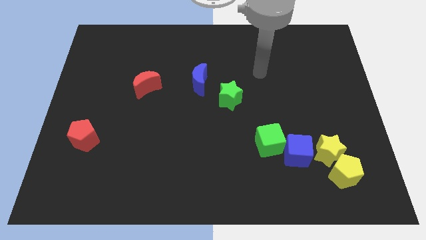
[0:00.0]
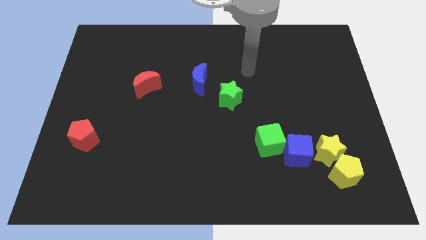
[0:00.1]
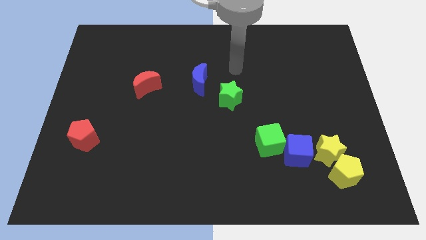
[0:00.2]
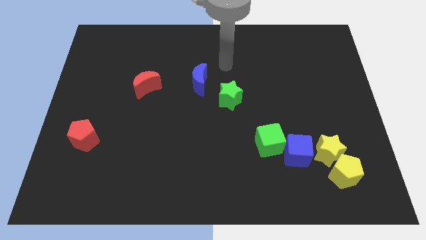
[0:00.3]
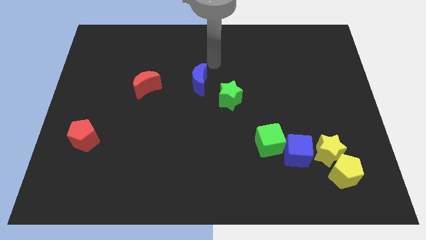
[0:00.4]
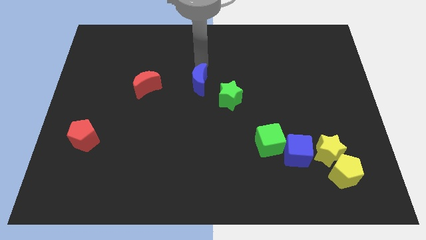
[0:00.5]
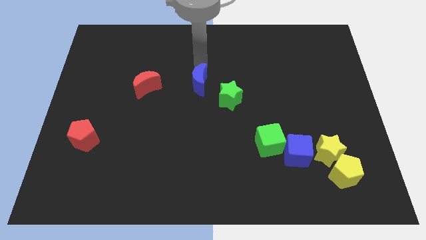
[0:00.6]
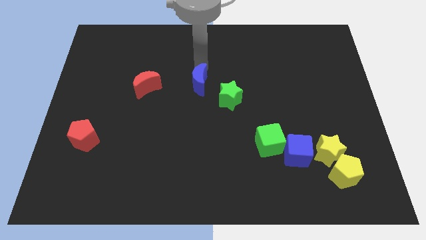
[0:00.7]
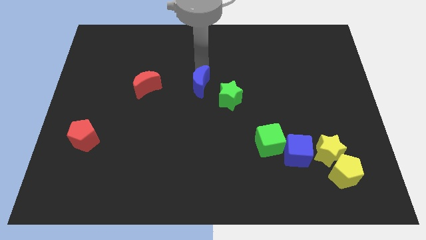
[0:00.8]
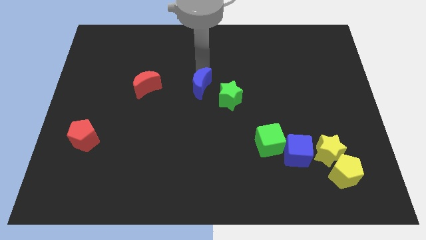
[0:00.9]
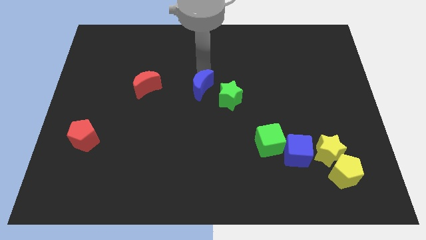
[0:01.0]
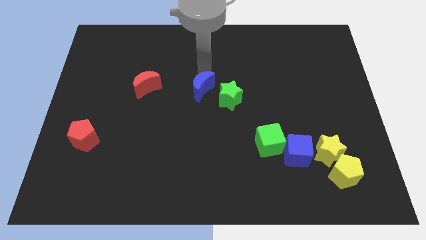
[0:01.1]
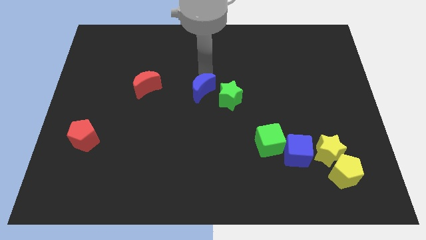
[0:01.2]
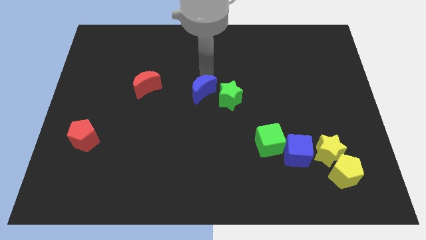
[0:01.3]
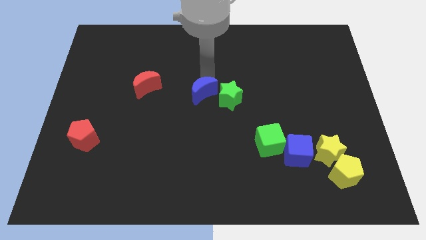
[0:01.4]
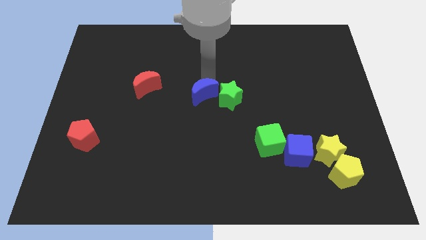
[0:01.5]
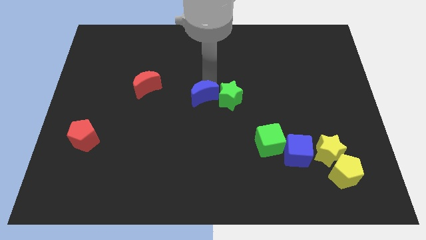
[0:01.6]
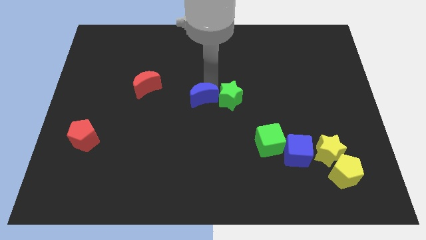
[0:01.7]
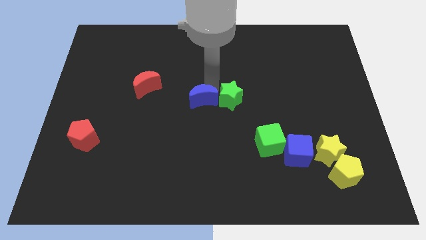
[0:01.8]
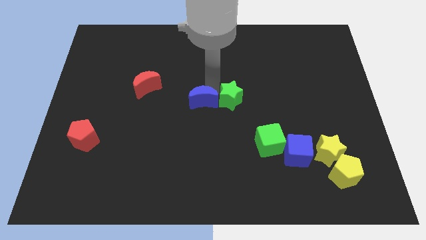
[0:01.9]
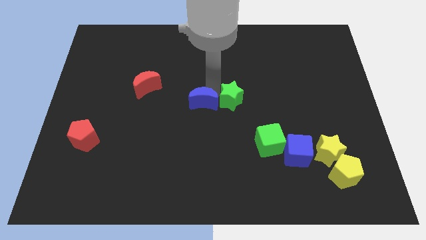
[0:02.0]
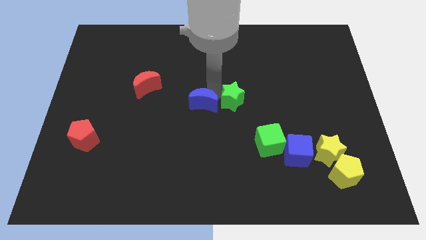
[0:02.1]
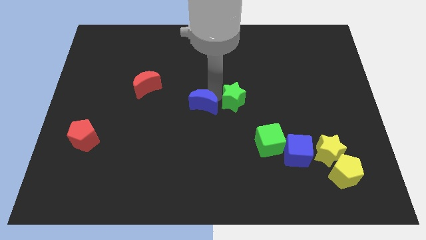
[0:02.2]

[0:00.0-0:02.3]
push the blue moon a bit downwards

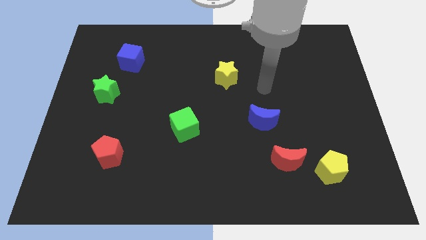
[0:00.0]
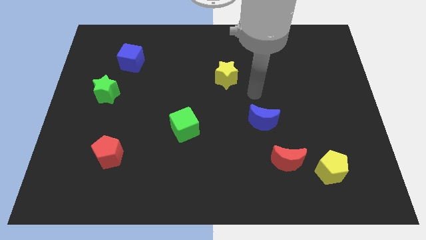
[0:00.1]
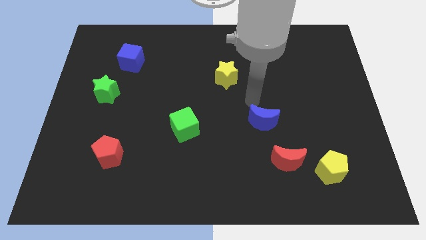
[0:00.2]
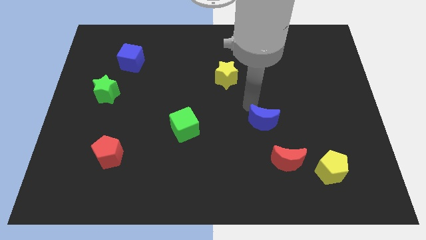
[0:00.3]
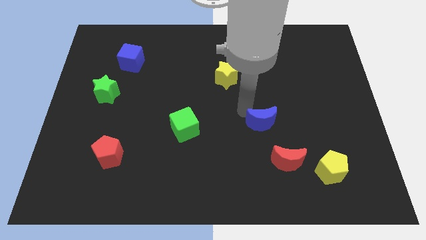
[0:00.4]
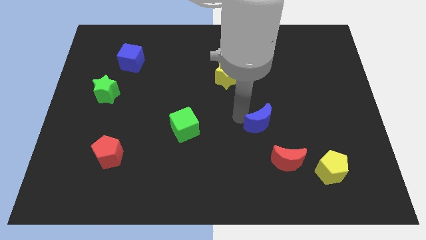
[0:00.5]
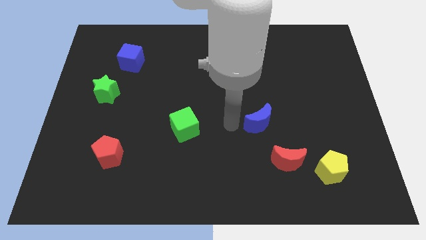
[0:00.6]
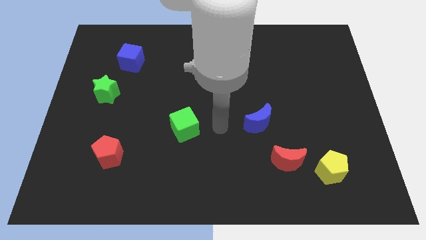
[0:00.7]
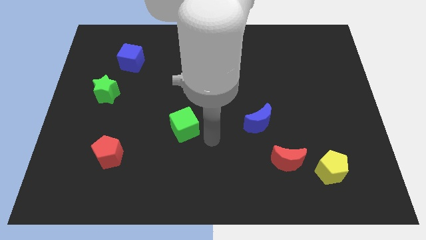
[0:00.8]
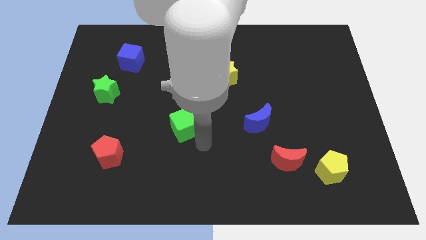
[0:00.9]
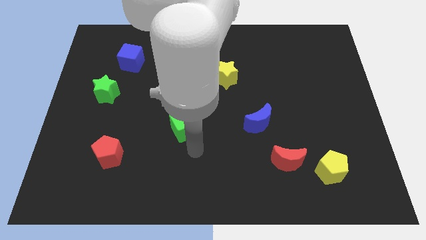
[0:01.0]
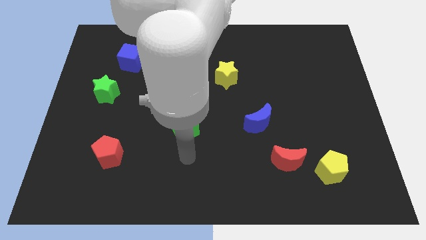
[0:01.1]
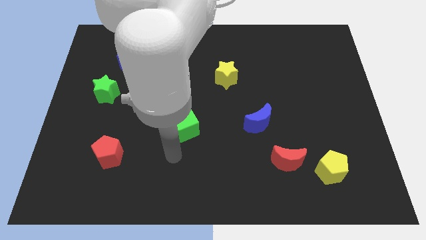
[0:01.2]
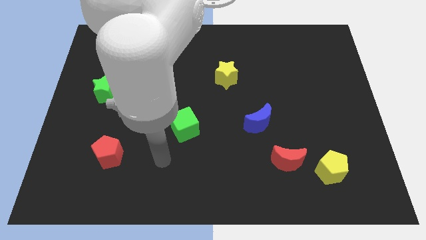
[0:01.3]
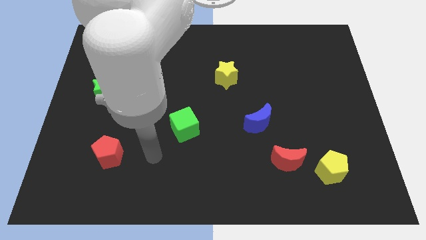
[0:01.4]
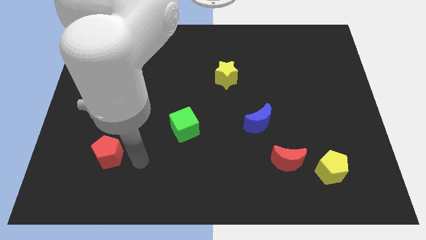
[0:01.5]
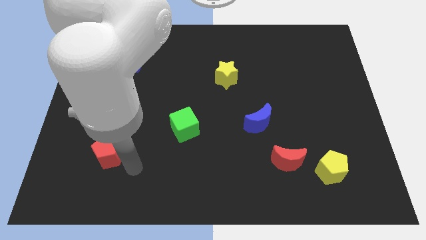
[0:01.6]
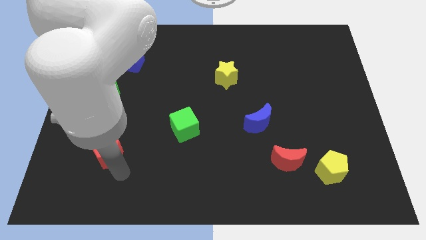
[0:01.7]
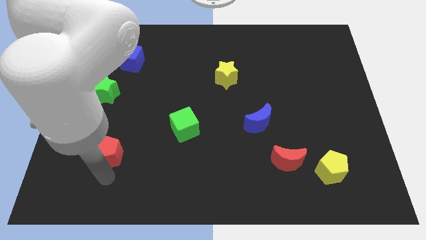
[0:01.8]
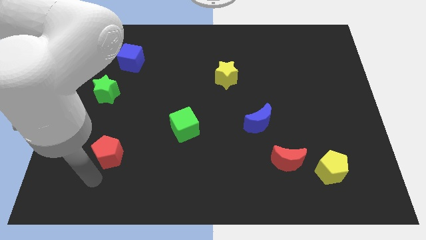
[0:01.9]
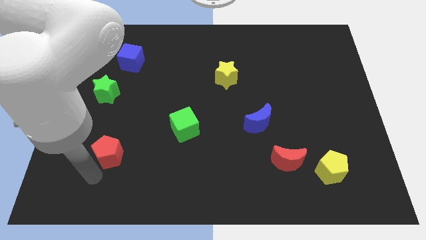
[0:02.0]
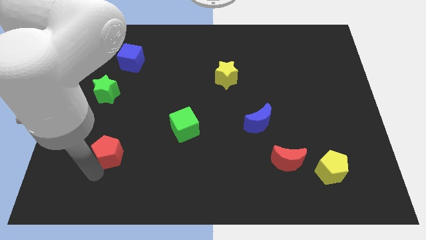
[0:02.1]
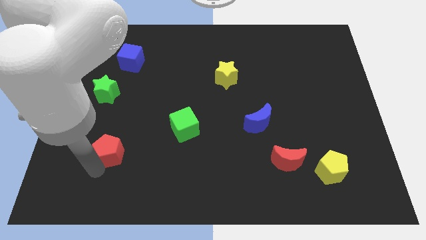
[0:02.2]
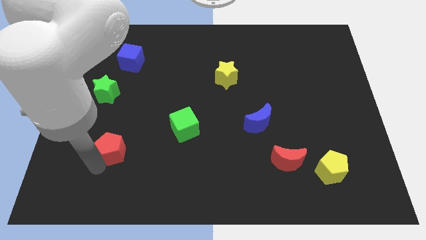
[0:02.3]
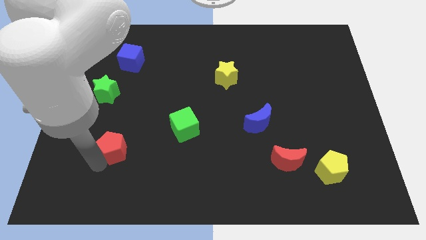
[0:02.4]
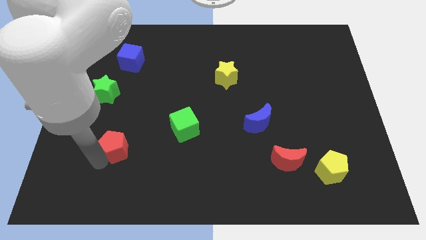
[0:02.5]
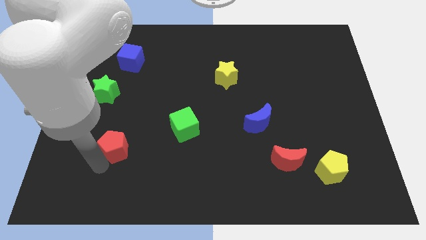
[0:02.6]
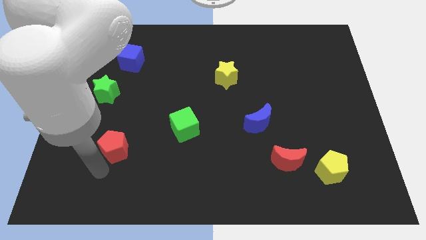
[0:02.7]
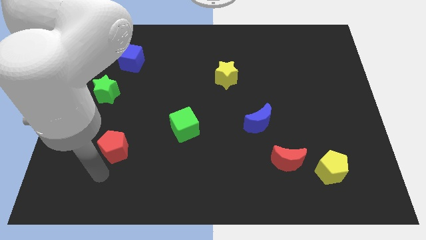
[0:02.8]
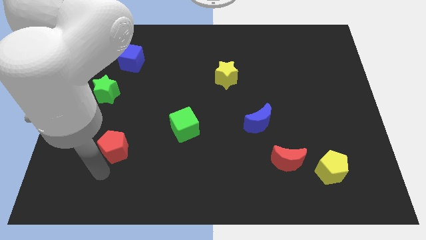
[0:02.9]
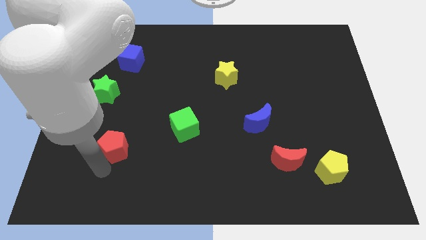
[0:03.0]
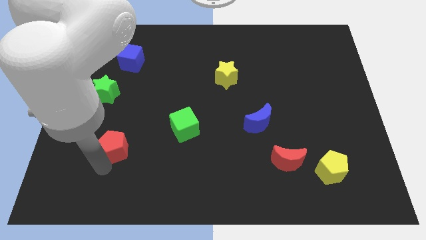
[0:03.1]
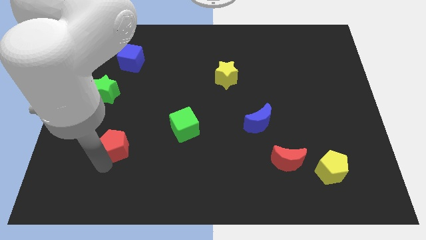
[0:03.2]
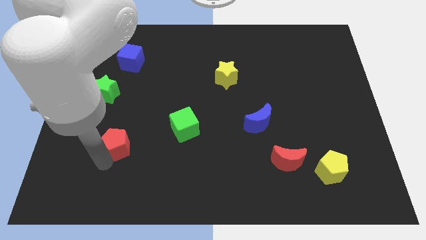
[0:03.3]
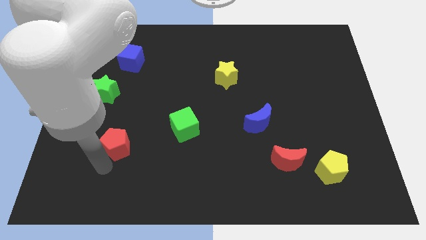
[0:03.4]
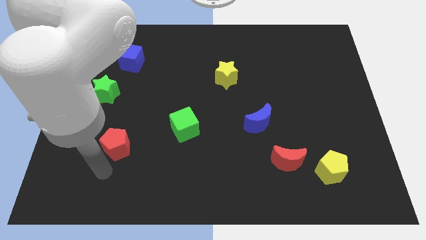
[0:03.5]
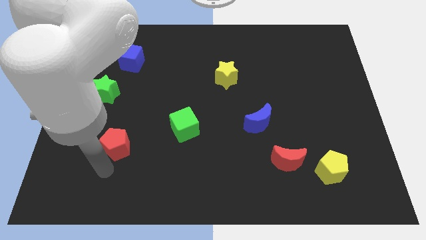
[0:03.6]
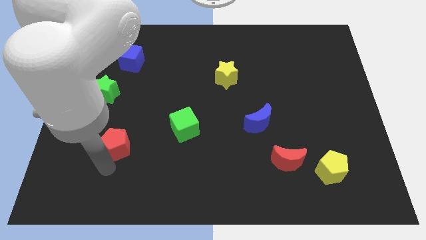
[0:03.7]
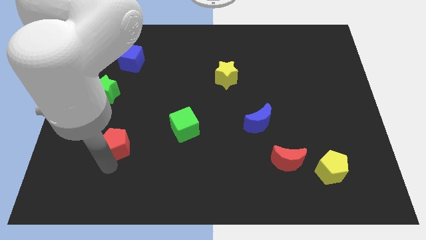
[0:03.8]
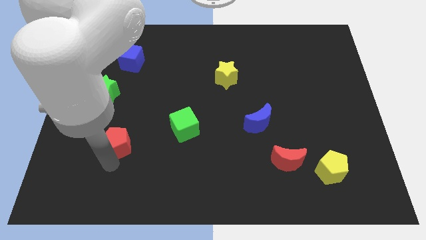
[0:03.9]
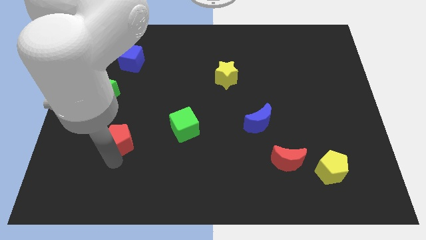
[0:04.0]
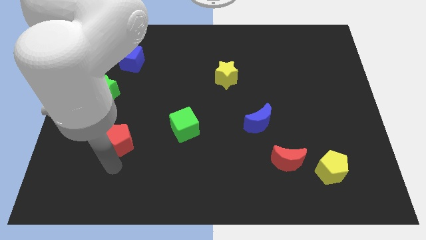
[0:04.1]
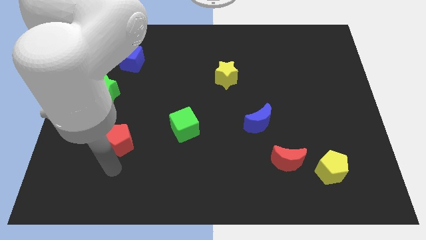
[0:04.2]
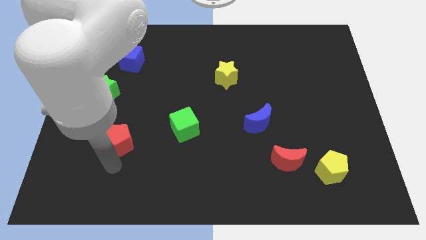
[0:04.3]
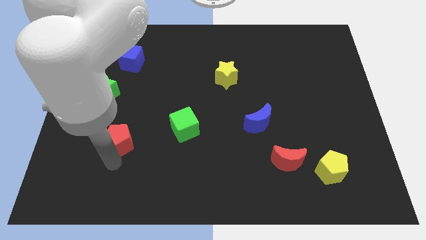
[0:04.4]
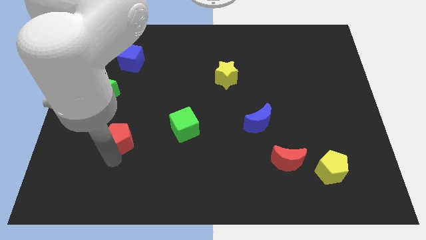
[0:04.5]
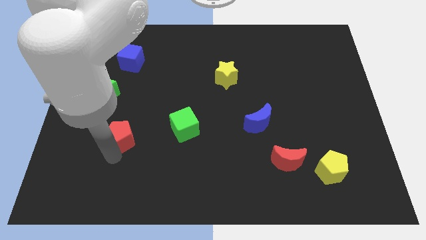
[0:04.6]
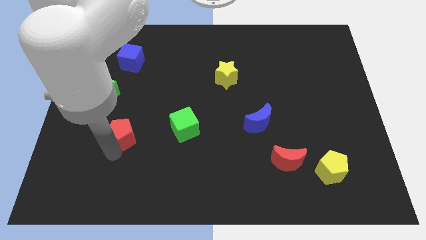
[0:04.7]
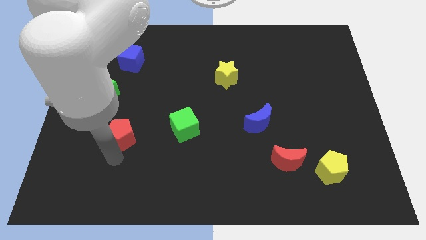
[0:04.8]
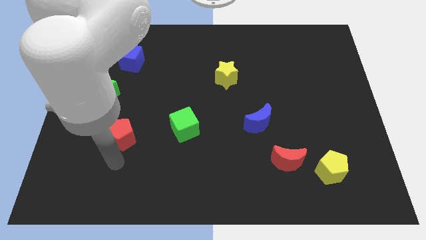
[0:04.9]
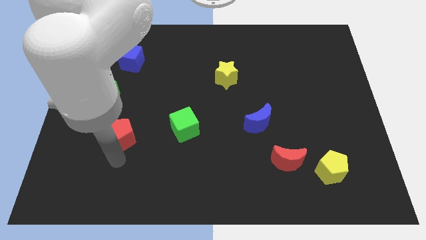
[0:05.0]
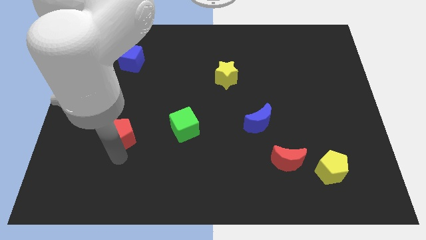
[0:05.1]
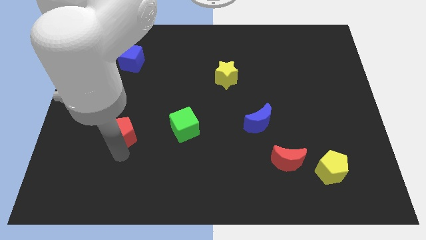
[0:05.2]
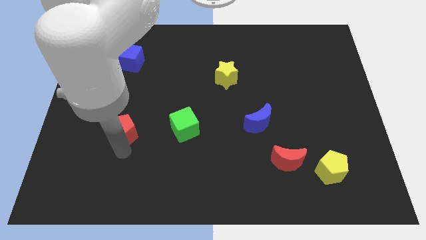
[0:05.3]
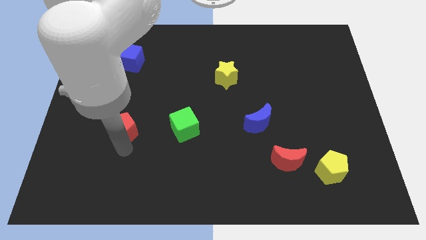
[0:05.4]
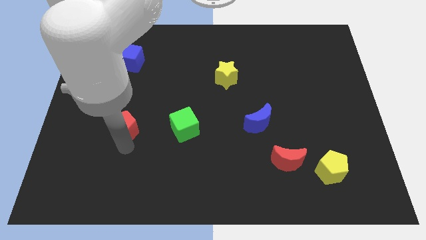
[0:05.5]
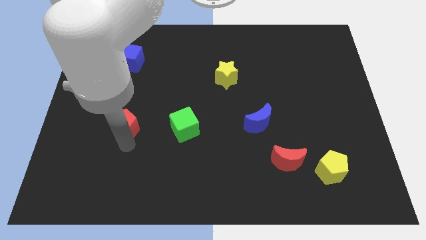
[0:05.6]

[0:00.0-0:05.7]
push the red pentagon a bit upwards

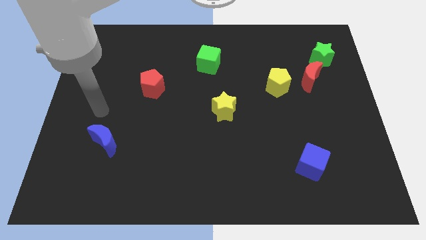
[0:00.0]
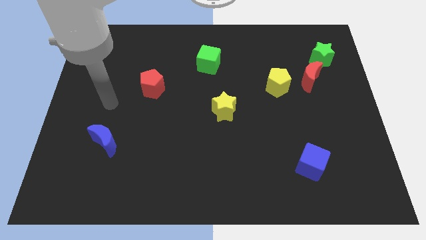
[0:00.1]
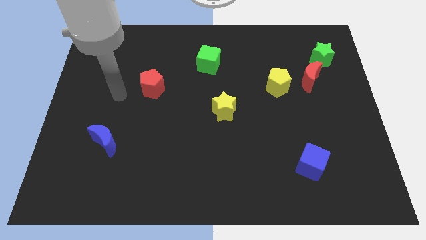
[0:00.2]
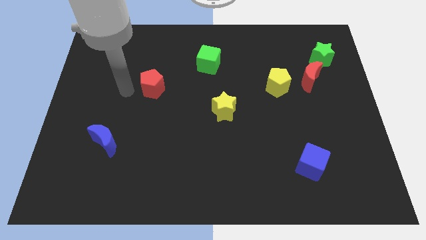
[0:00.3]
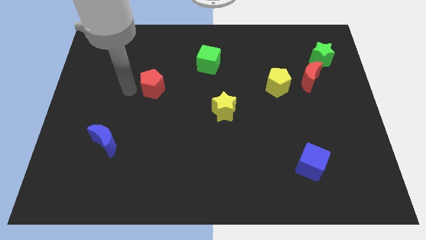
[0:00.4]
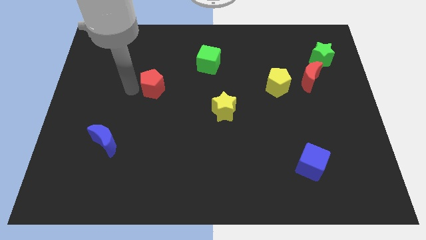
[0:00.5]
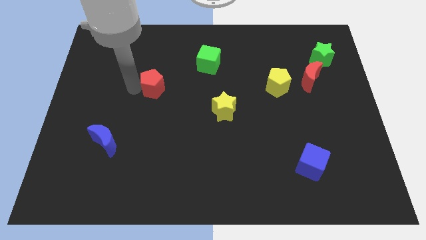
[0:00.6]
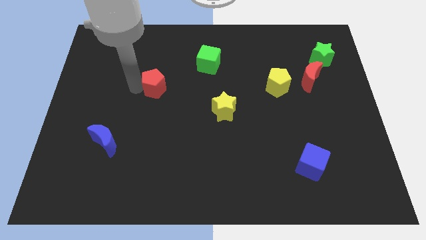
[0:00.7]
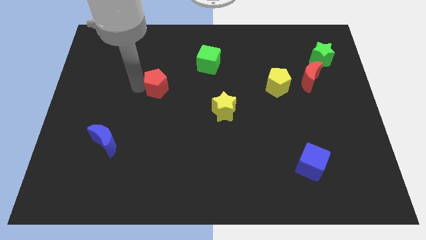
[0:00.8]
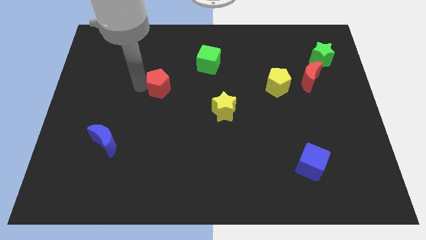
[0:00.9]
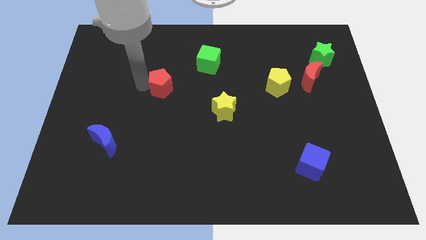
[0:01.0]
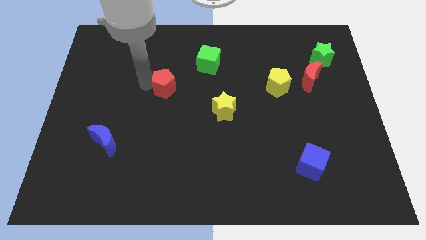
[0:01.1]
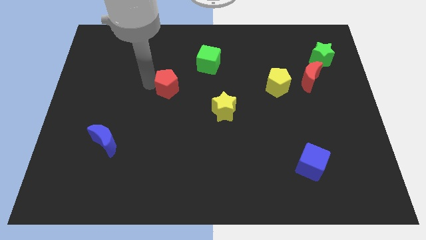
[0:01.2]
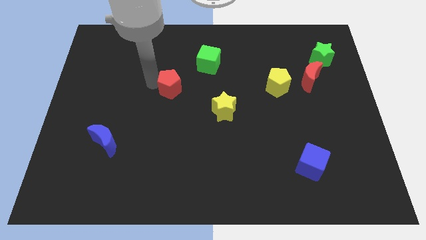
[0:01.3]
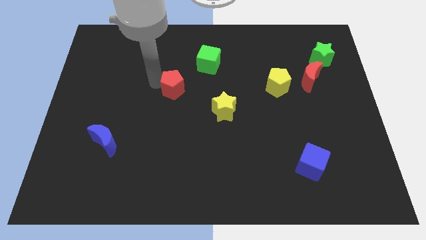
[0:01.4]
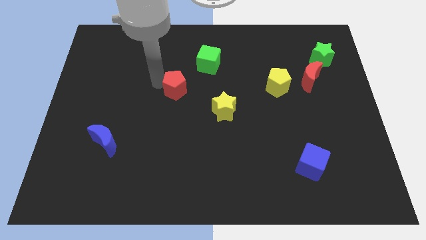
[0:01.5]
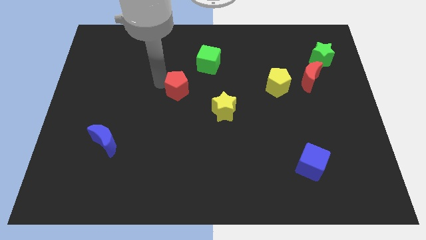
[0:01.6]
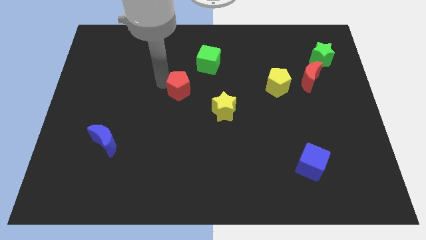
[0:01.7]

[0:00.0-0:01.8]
slide the red pentagon somewhat right
